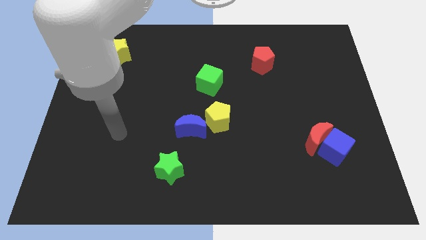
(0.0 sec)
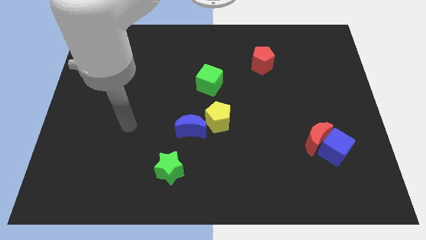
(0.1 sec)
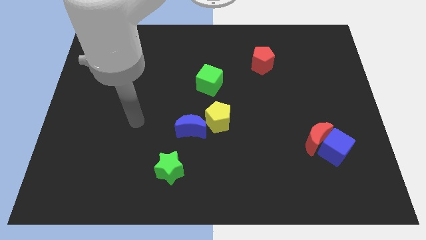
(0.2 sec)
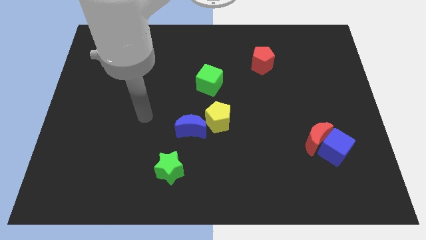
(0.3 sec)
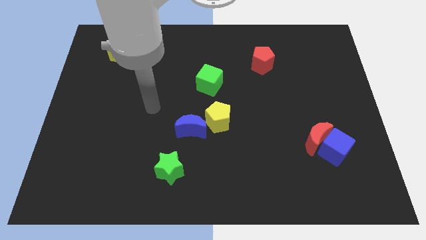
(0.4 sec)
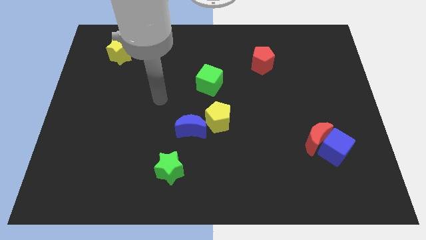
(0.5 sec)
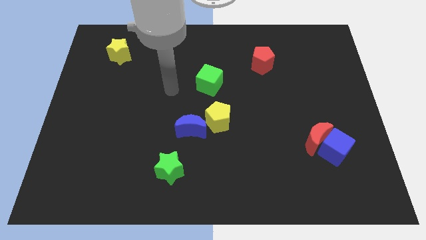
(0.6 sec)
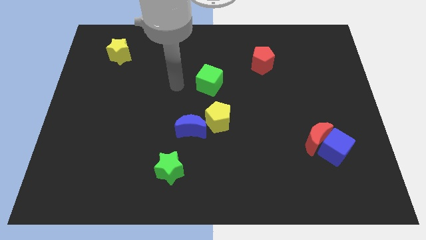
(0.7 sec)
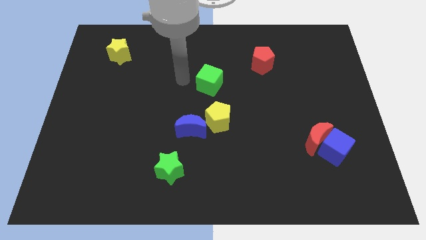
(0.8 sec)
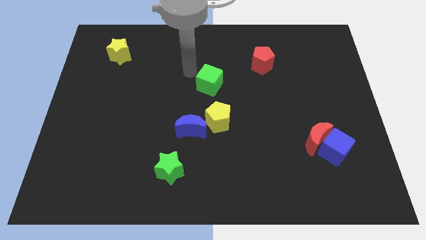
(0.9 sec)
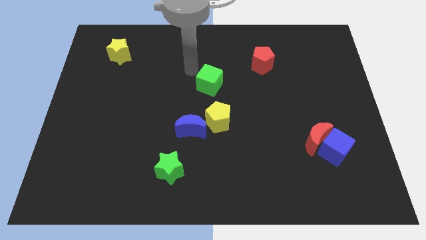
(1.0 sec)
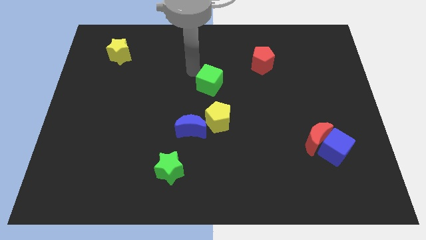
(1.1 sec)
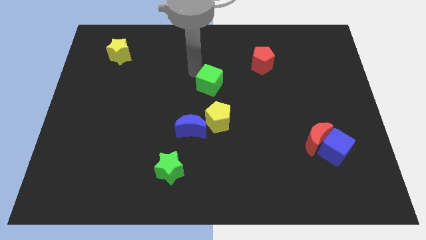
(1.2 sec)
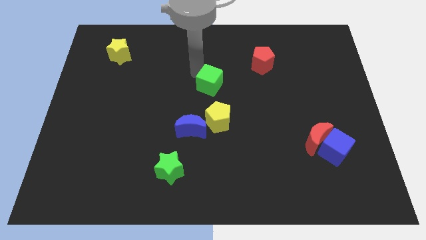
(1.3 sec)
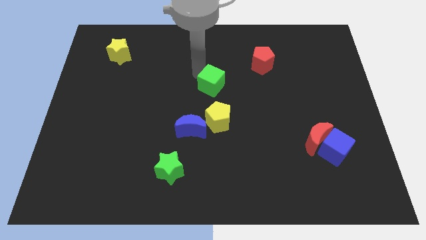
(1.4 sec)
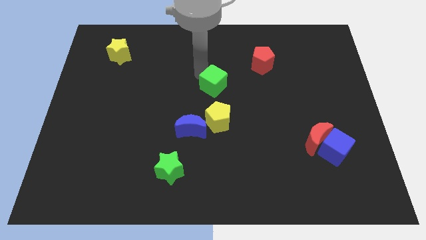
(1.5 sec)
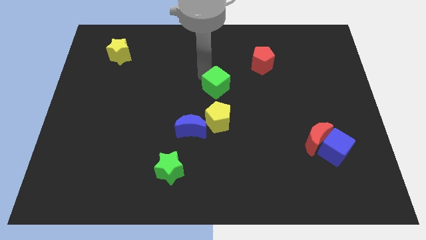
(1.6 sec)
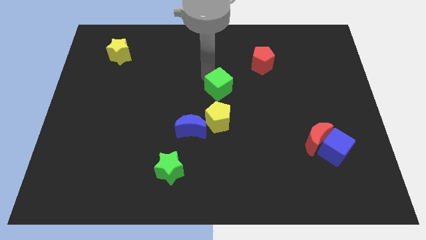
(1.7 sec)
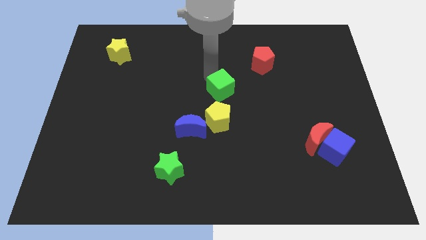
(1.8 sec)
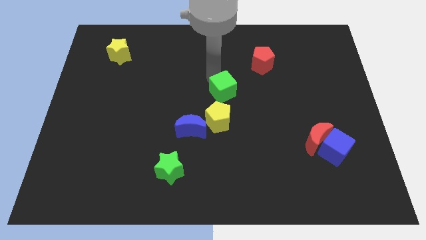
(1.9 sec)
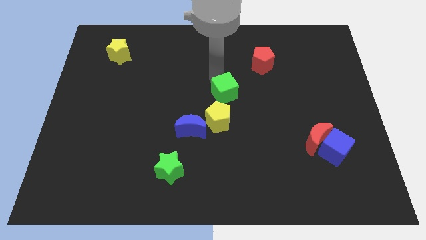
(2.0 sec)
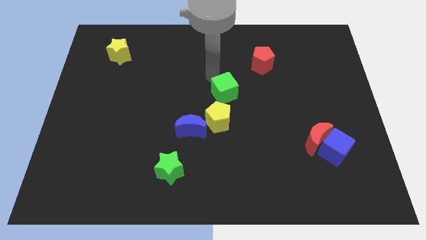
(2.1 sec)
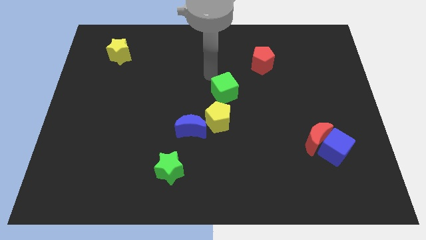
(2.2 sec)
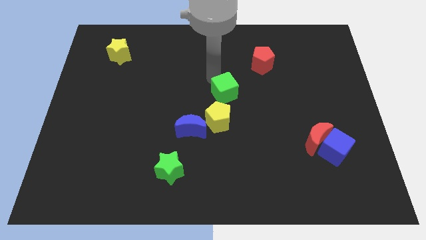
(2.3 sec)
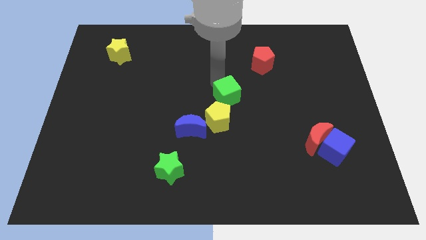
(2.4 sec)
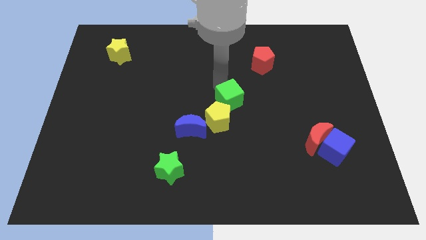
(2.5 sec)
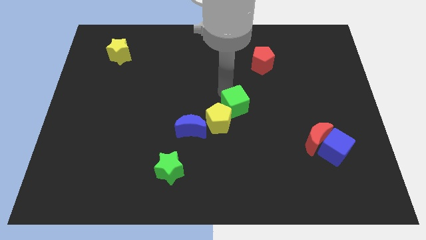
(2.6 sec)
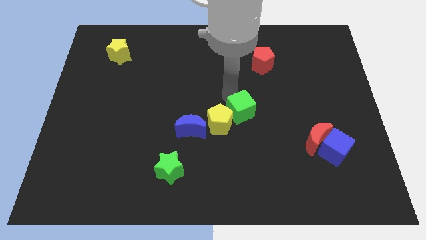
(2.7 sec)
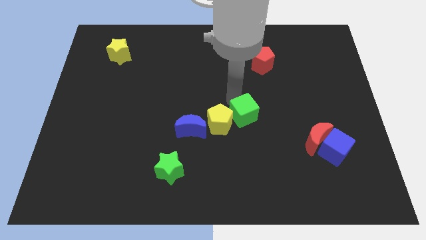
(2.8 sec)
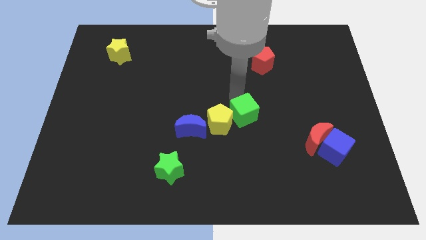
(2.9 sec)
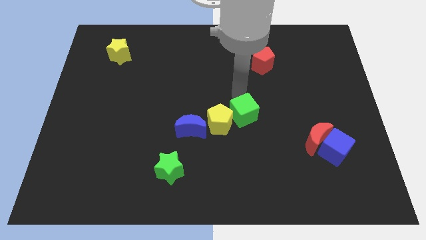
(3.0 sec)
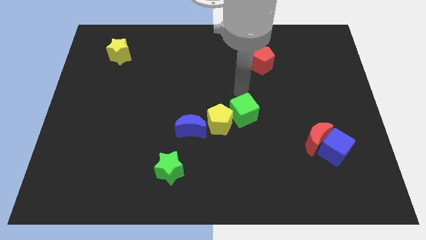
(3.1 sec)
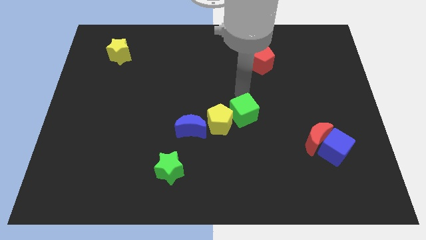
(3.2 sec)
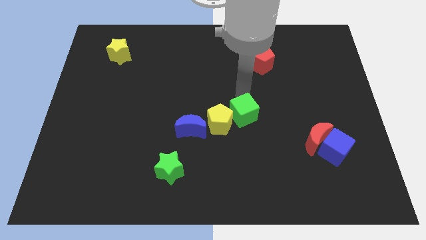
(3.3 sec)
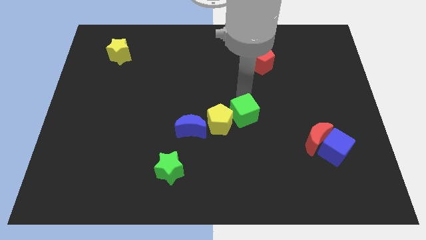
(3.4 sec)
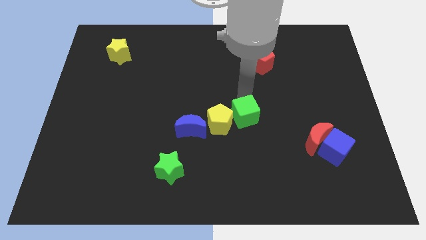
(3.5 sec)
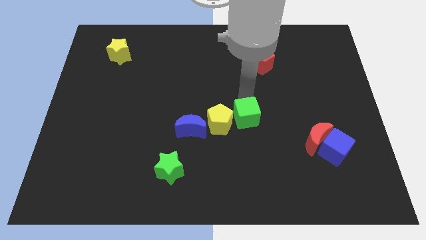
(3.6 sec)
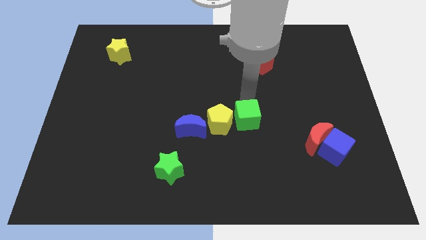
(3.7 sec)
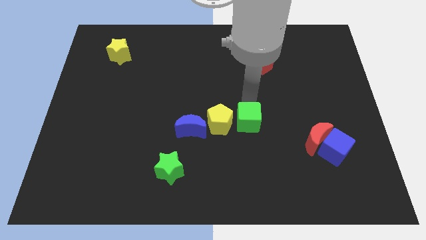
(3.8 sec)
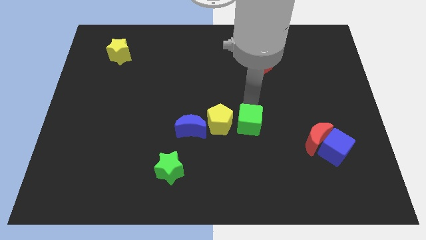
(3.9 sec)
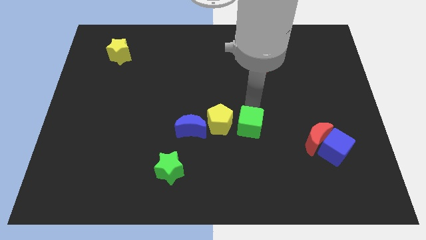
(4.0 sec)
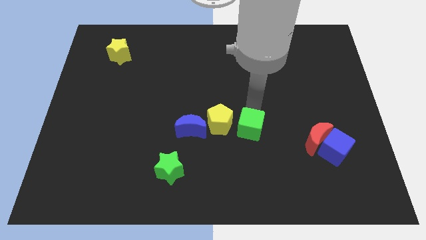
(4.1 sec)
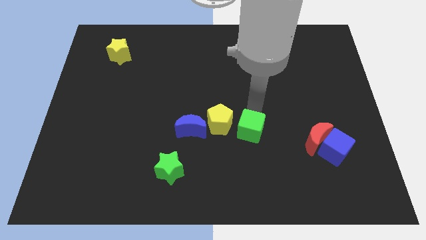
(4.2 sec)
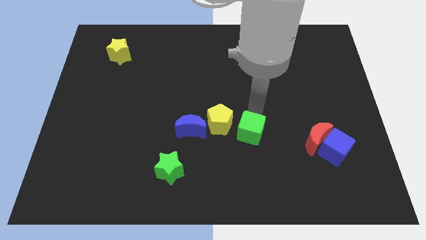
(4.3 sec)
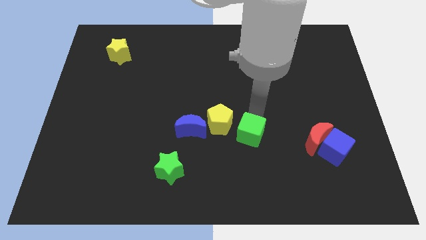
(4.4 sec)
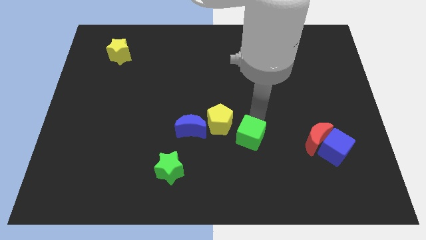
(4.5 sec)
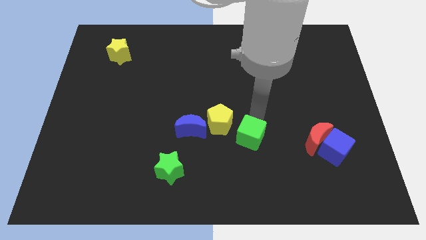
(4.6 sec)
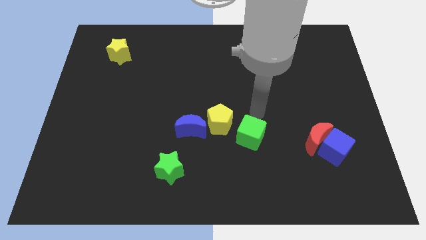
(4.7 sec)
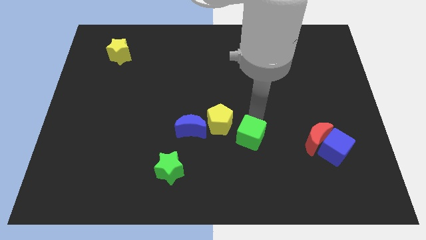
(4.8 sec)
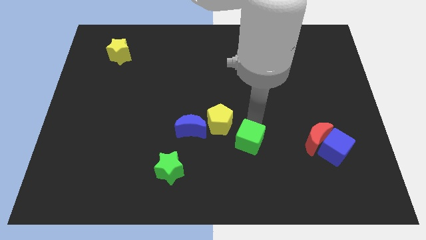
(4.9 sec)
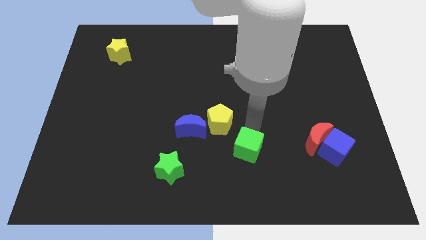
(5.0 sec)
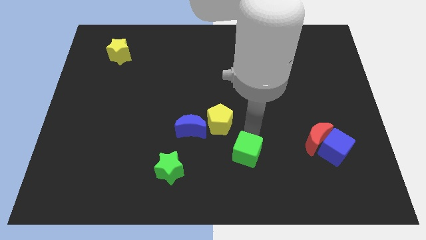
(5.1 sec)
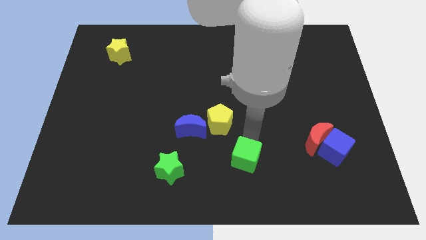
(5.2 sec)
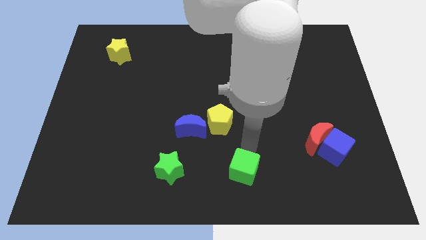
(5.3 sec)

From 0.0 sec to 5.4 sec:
slide the green cube to the bottom side

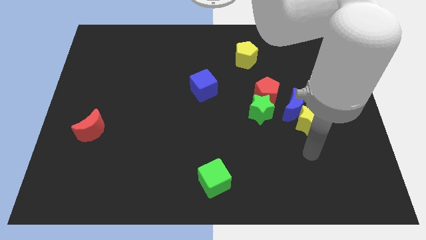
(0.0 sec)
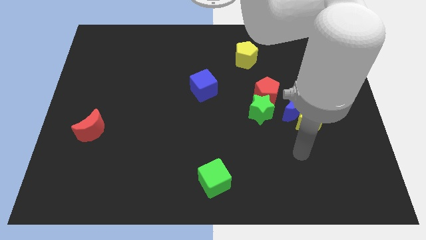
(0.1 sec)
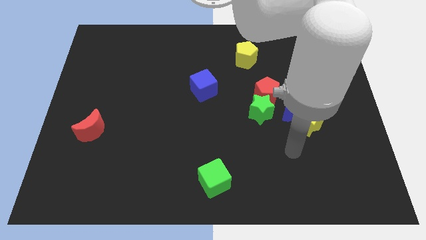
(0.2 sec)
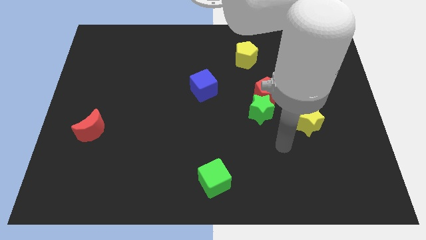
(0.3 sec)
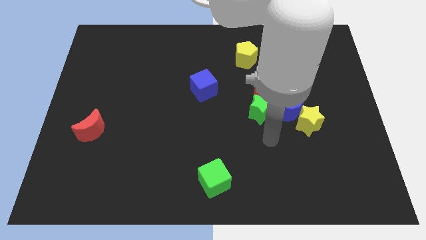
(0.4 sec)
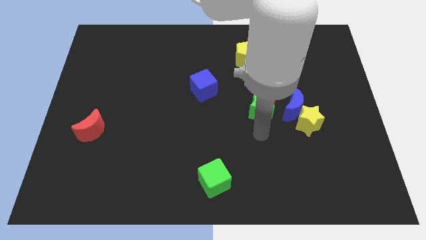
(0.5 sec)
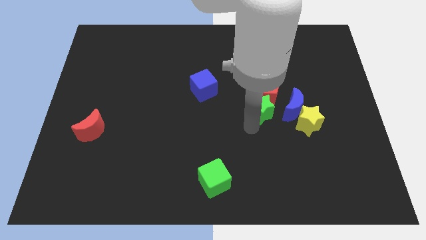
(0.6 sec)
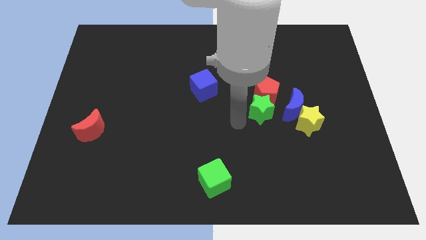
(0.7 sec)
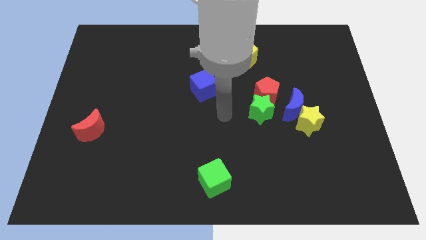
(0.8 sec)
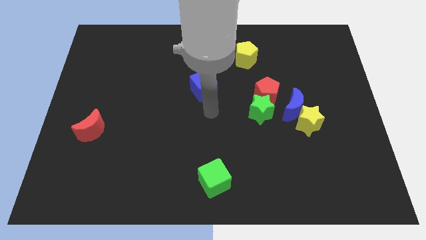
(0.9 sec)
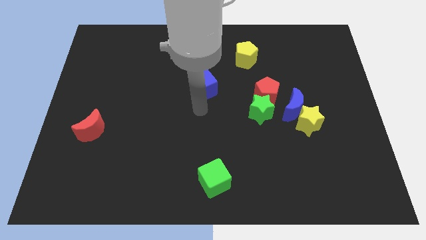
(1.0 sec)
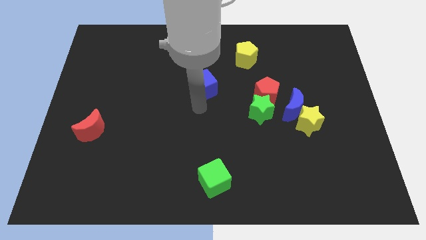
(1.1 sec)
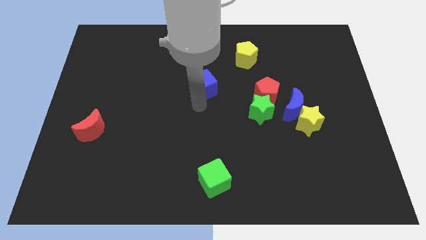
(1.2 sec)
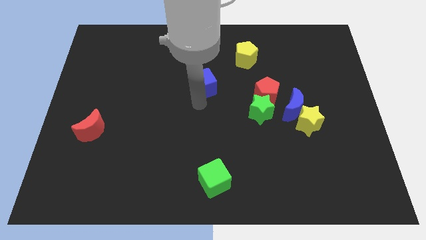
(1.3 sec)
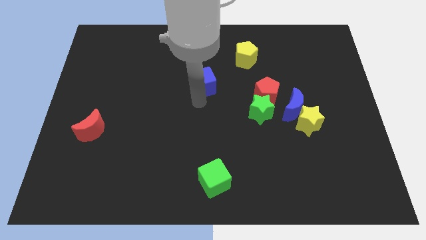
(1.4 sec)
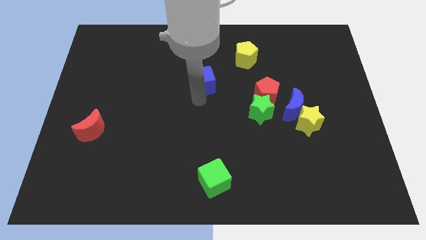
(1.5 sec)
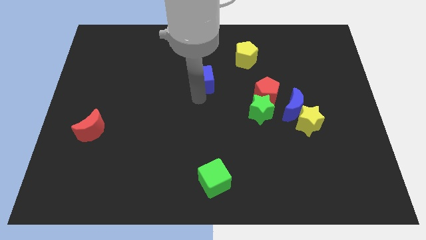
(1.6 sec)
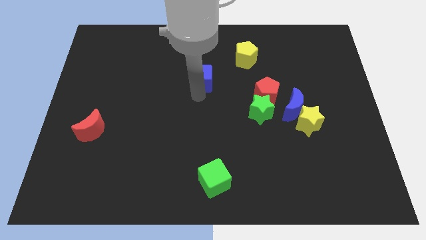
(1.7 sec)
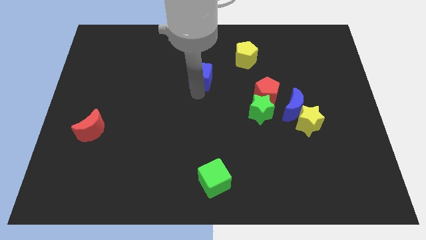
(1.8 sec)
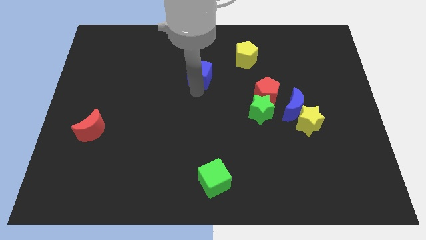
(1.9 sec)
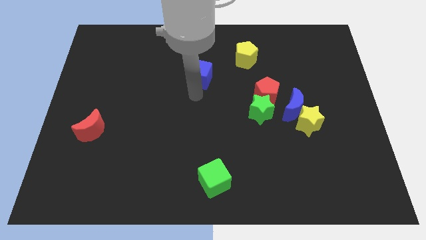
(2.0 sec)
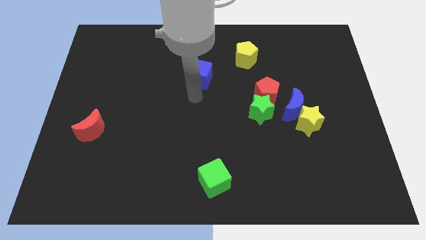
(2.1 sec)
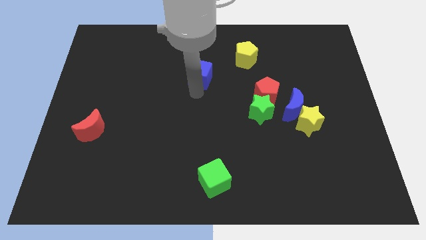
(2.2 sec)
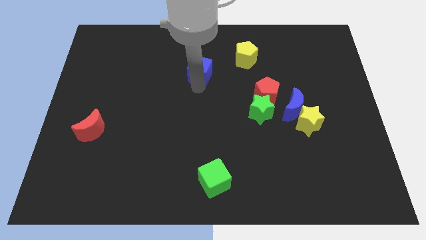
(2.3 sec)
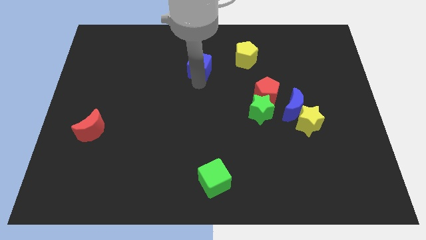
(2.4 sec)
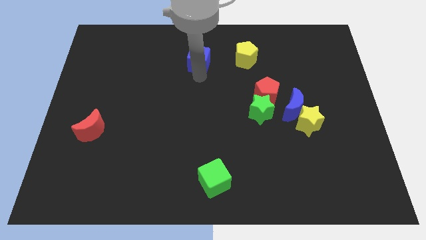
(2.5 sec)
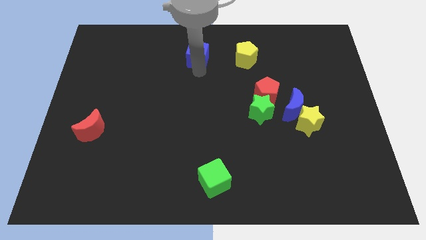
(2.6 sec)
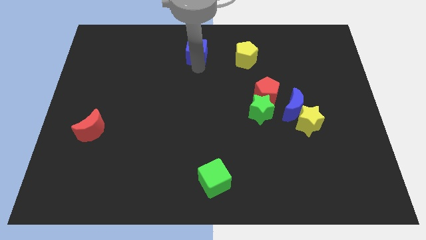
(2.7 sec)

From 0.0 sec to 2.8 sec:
put the blue cube to the towards your base
